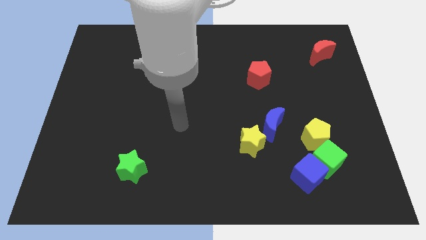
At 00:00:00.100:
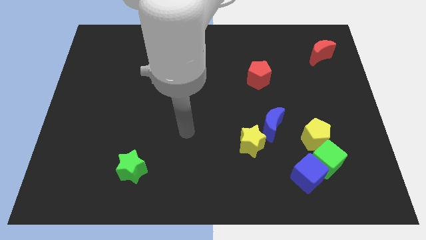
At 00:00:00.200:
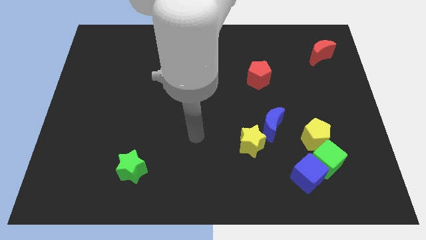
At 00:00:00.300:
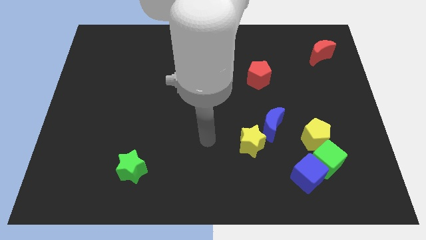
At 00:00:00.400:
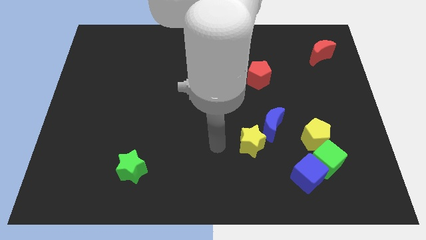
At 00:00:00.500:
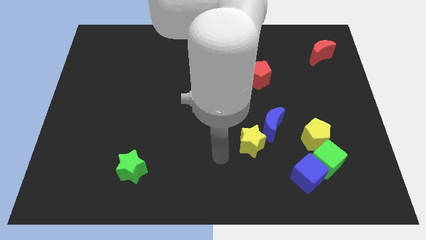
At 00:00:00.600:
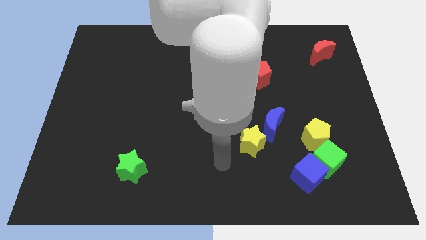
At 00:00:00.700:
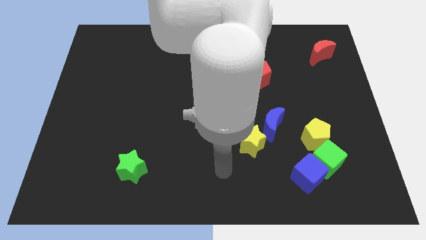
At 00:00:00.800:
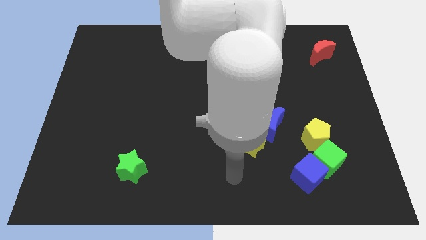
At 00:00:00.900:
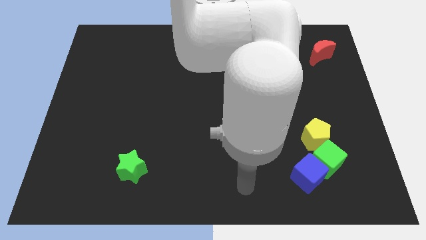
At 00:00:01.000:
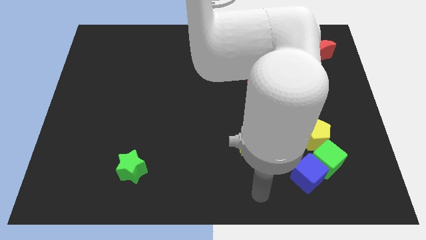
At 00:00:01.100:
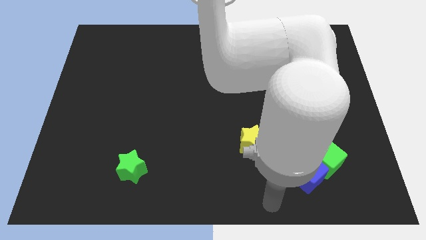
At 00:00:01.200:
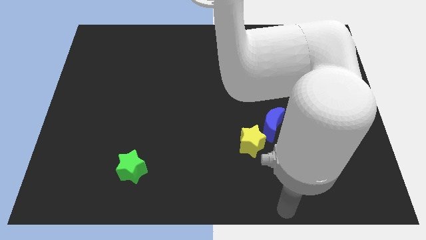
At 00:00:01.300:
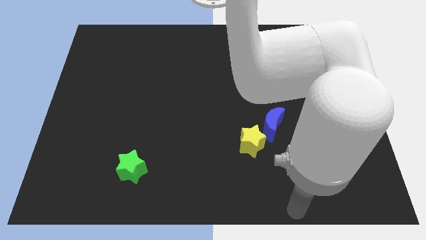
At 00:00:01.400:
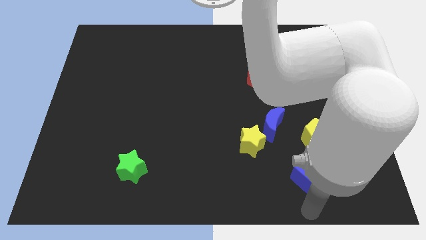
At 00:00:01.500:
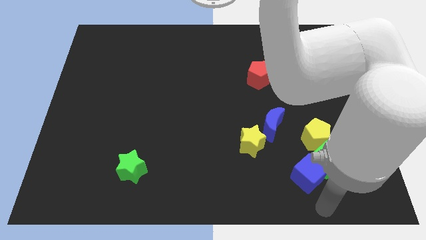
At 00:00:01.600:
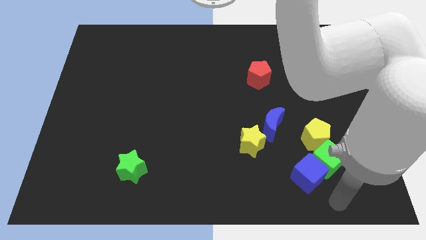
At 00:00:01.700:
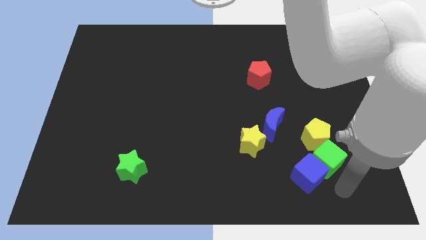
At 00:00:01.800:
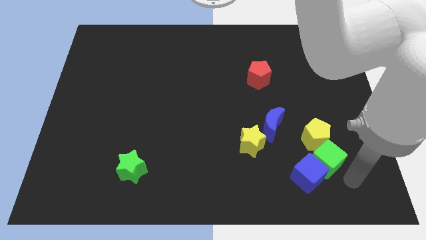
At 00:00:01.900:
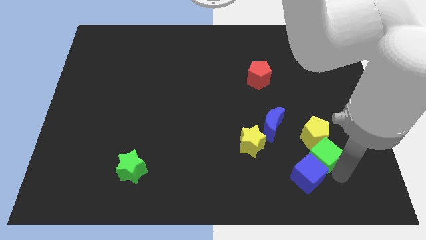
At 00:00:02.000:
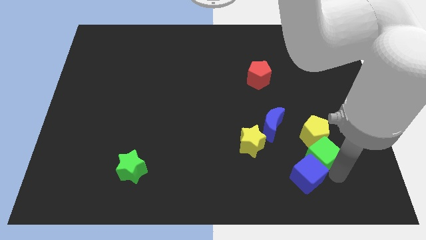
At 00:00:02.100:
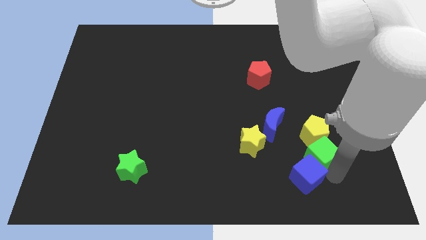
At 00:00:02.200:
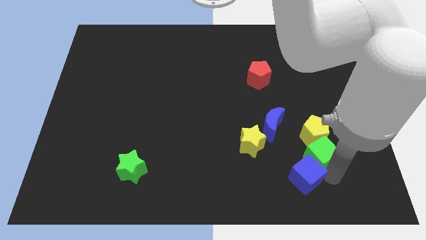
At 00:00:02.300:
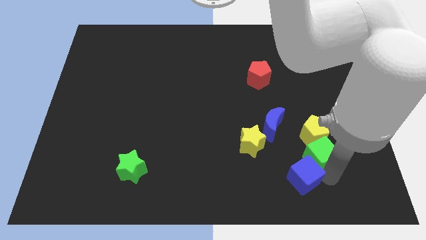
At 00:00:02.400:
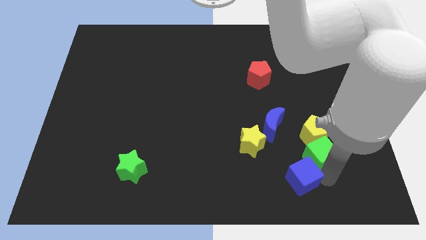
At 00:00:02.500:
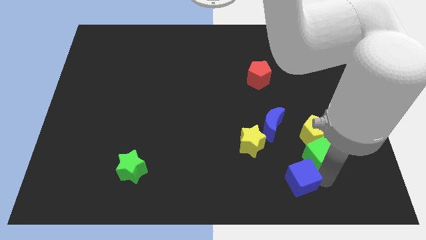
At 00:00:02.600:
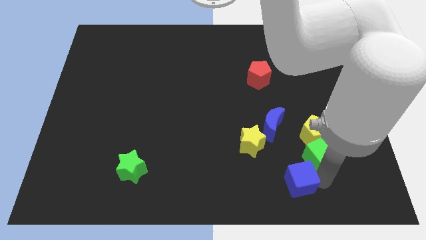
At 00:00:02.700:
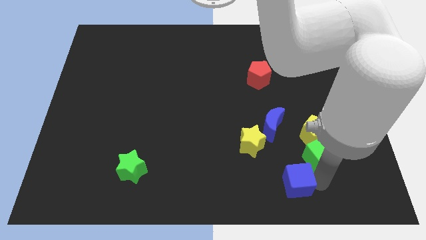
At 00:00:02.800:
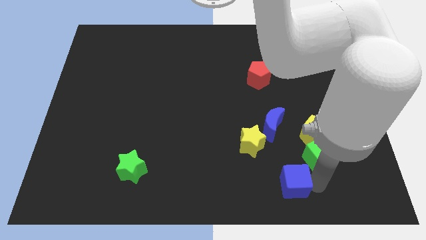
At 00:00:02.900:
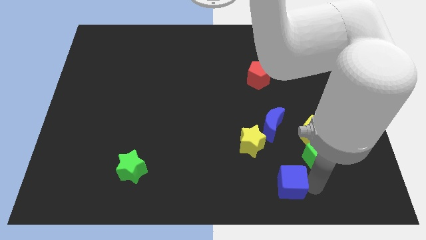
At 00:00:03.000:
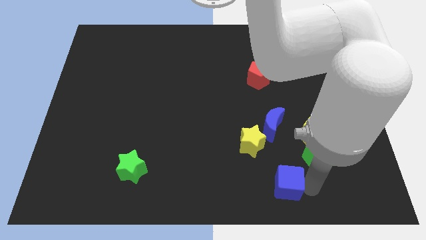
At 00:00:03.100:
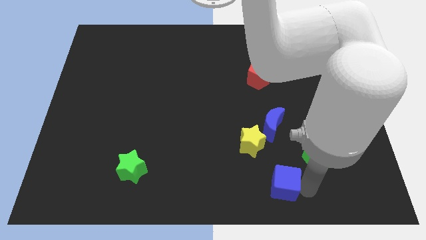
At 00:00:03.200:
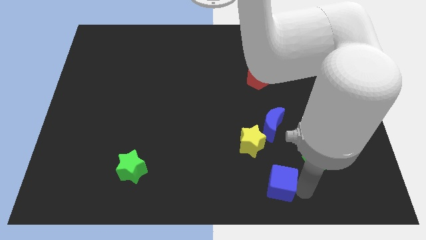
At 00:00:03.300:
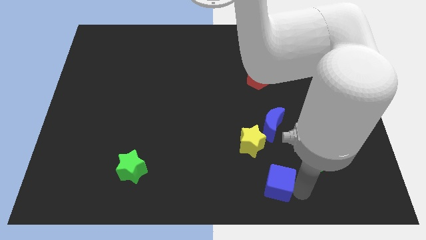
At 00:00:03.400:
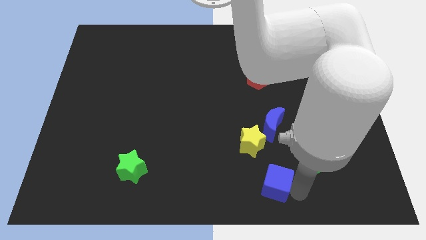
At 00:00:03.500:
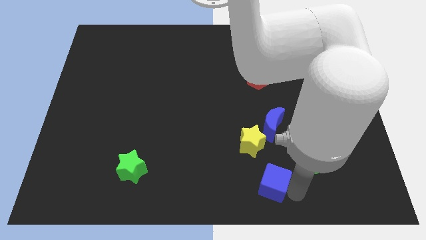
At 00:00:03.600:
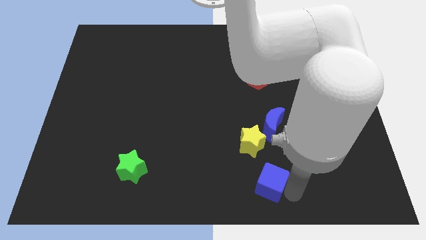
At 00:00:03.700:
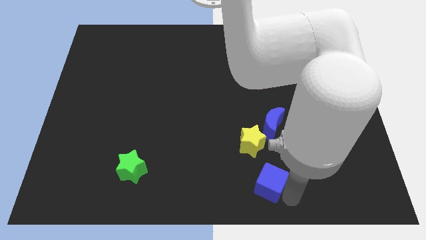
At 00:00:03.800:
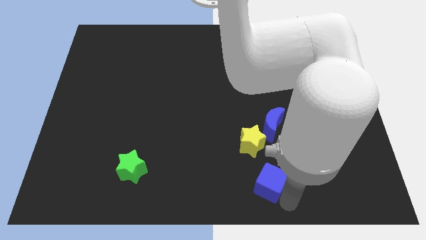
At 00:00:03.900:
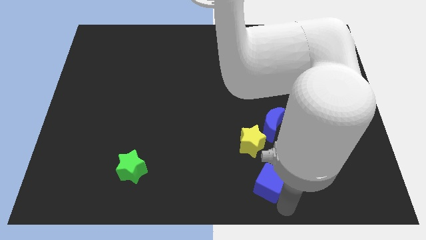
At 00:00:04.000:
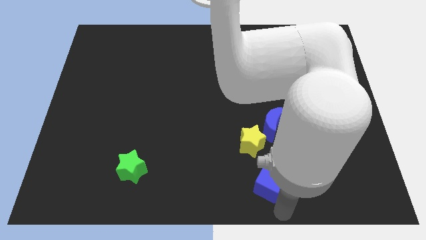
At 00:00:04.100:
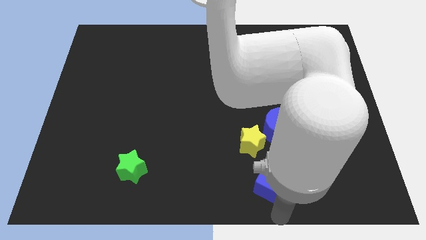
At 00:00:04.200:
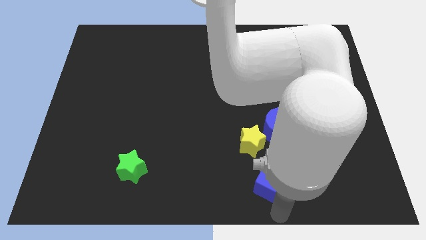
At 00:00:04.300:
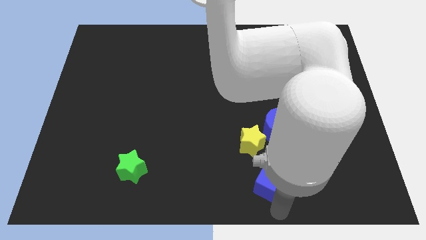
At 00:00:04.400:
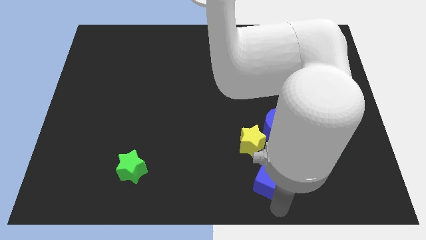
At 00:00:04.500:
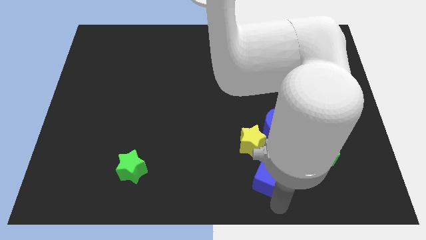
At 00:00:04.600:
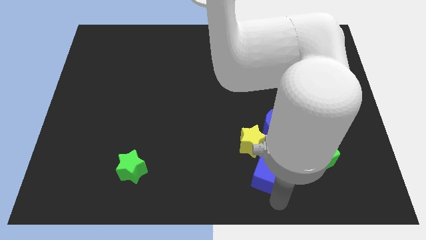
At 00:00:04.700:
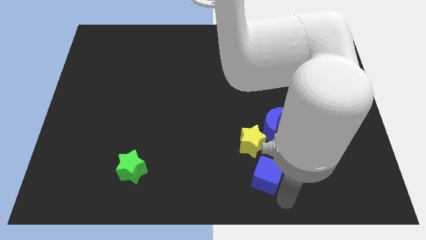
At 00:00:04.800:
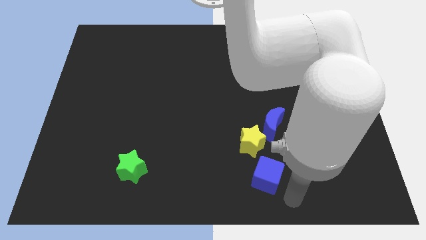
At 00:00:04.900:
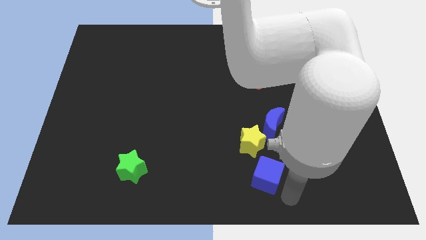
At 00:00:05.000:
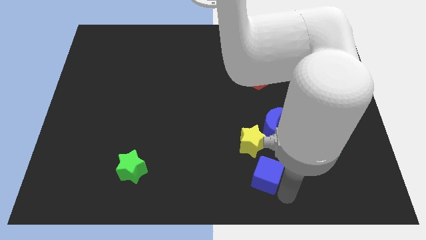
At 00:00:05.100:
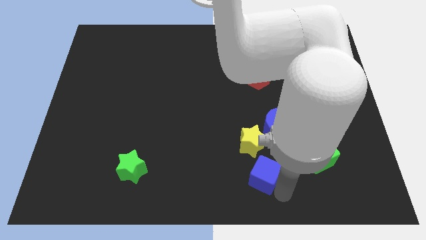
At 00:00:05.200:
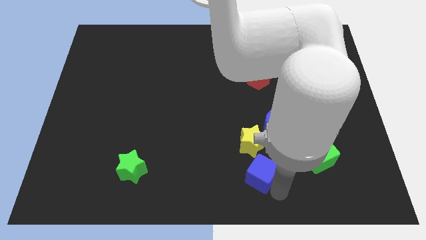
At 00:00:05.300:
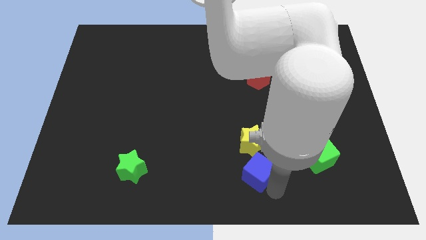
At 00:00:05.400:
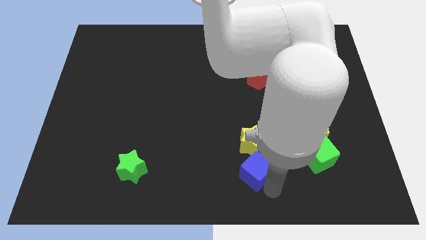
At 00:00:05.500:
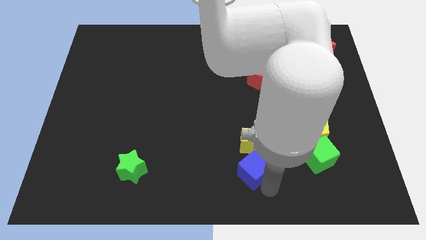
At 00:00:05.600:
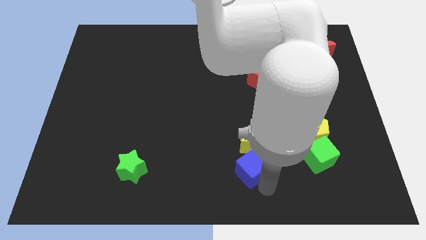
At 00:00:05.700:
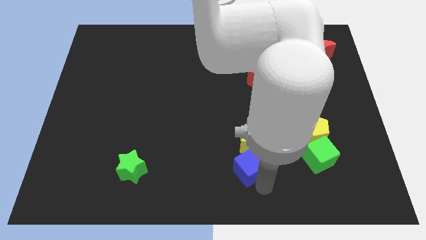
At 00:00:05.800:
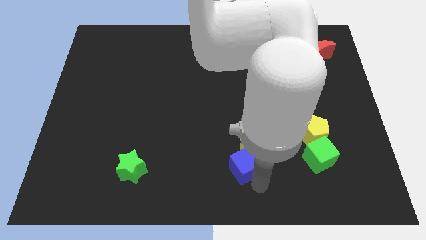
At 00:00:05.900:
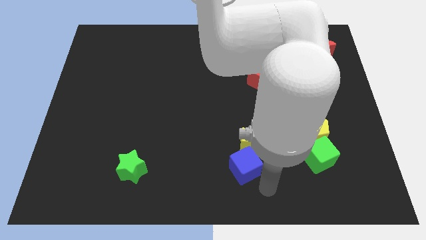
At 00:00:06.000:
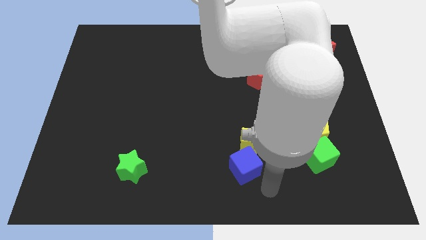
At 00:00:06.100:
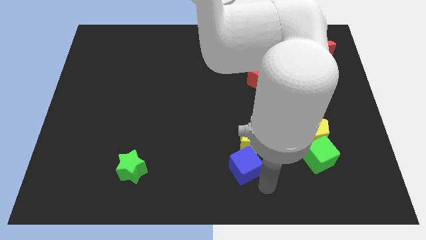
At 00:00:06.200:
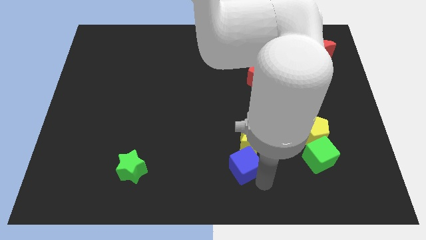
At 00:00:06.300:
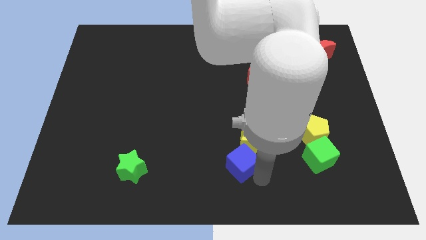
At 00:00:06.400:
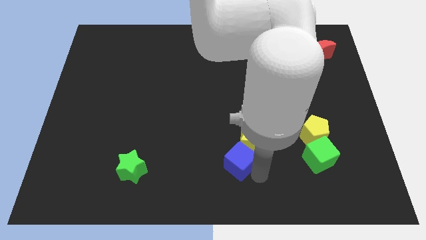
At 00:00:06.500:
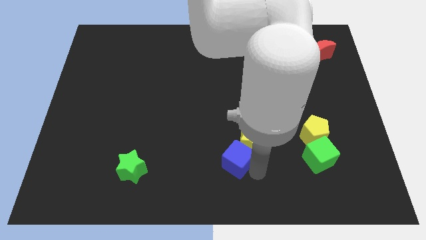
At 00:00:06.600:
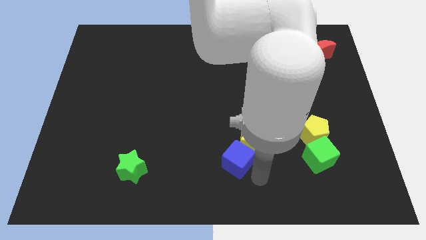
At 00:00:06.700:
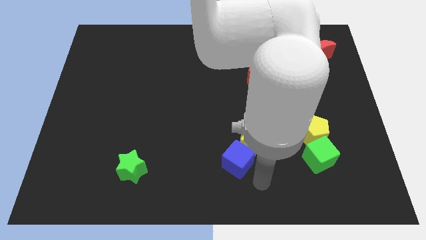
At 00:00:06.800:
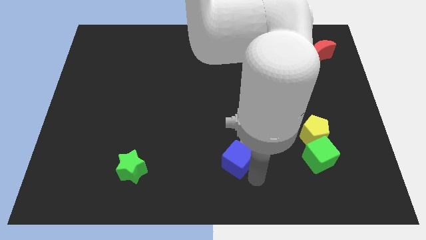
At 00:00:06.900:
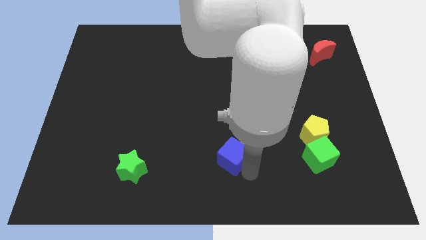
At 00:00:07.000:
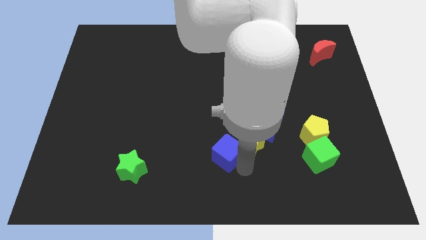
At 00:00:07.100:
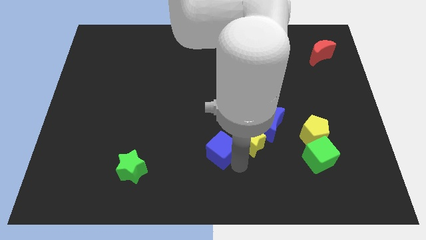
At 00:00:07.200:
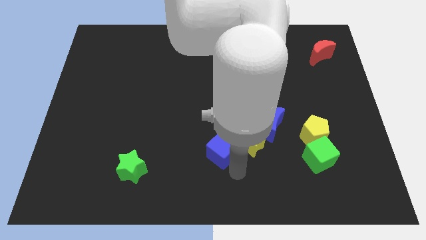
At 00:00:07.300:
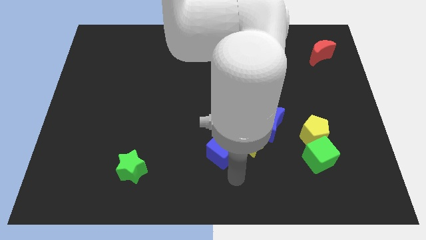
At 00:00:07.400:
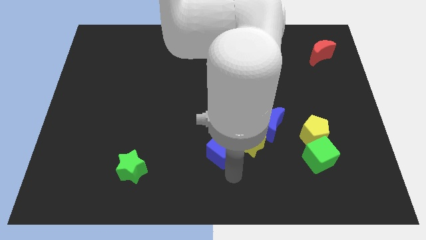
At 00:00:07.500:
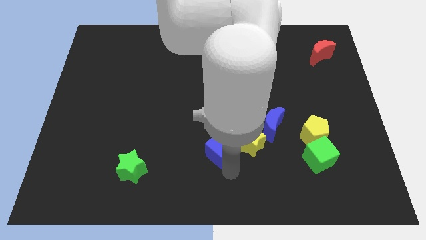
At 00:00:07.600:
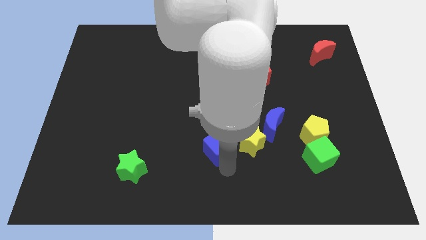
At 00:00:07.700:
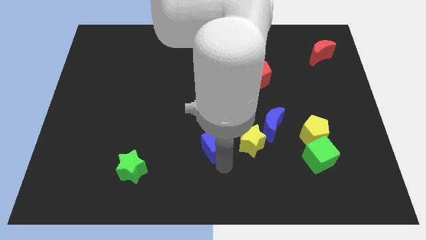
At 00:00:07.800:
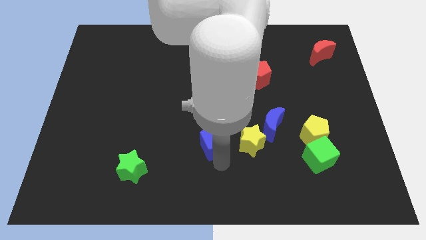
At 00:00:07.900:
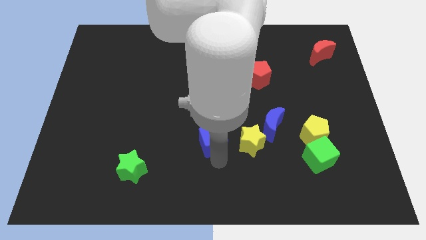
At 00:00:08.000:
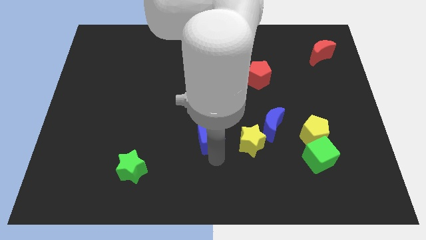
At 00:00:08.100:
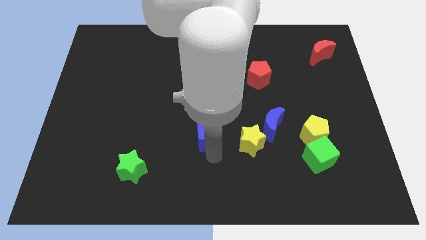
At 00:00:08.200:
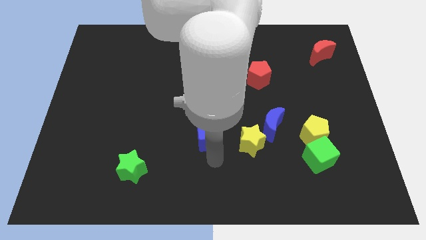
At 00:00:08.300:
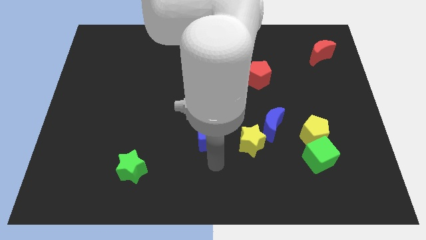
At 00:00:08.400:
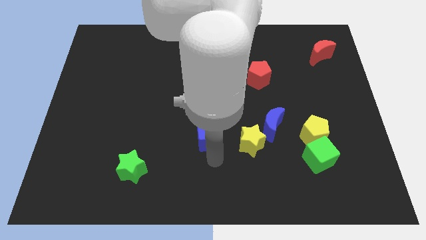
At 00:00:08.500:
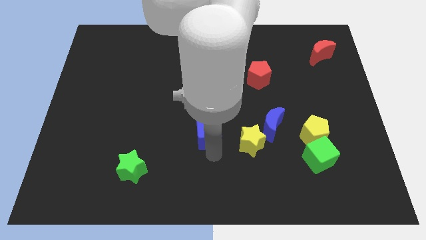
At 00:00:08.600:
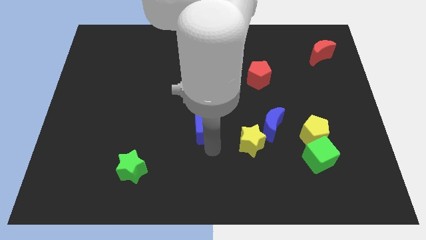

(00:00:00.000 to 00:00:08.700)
push the blue cube upwards and to the left
